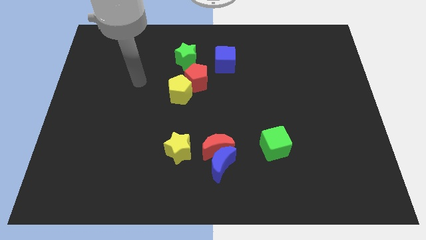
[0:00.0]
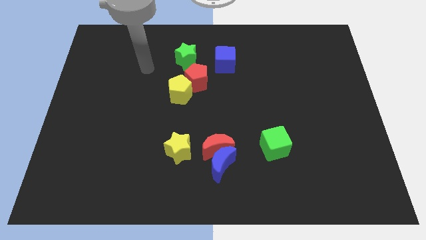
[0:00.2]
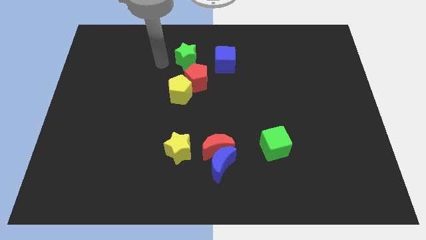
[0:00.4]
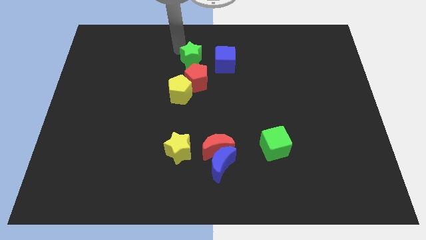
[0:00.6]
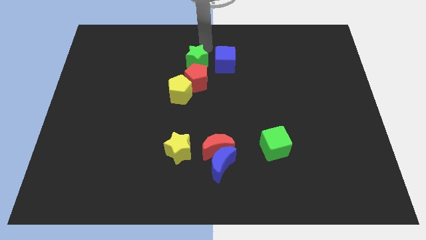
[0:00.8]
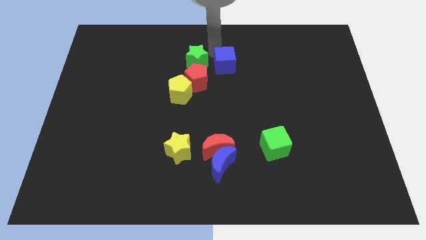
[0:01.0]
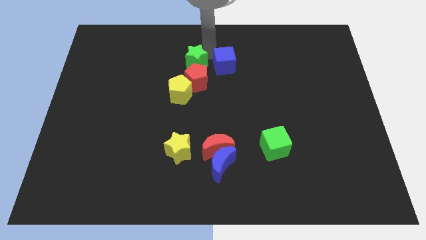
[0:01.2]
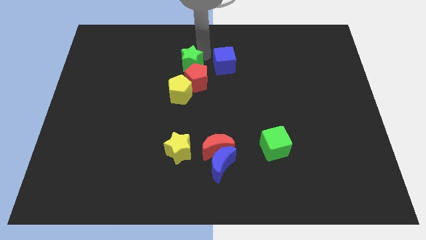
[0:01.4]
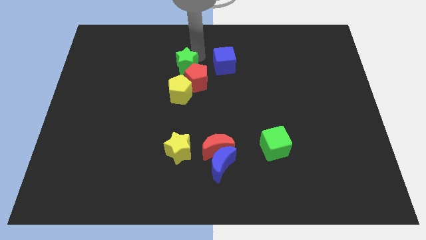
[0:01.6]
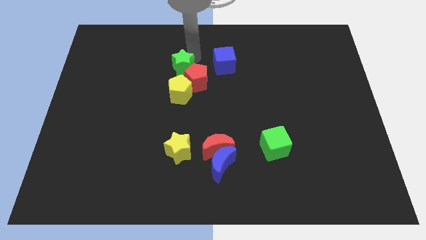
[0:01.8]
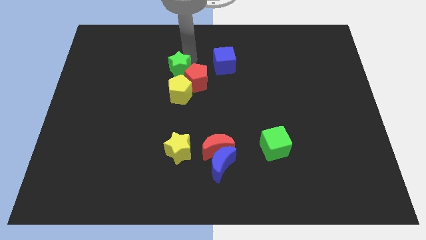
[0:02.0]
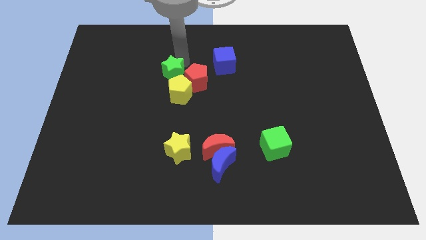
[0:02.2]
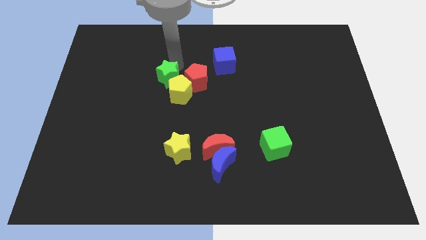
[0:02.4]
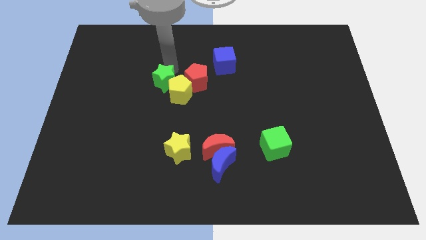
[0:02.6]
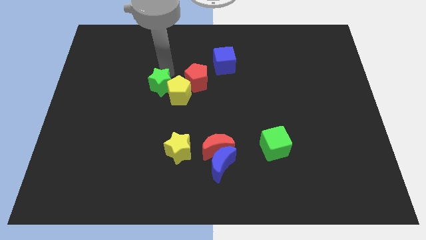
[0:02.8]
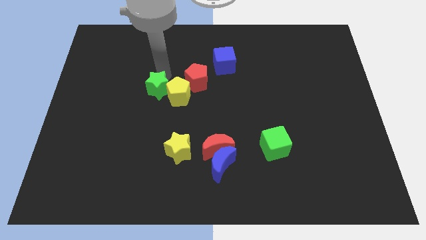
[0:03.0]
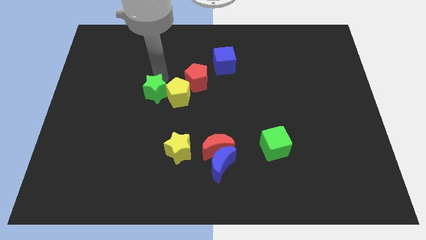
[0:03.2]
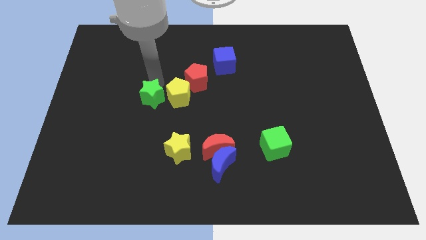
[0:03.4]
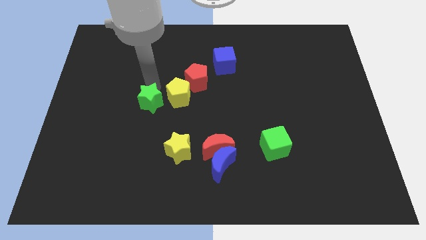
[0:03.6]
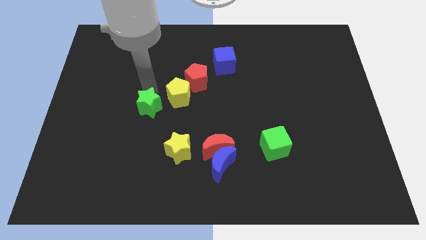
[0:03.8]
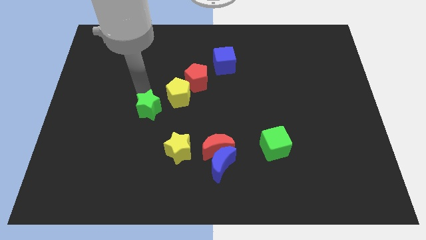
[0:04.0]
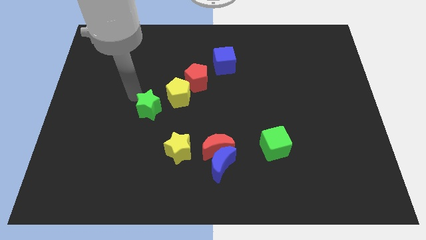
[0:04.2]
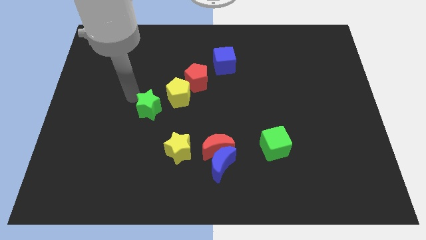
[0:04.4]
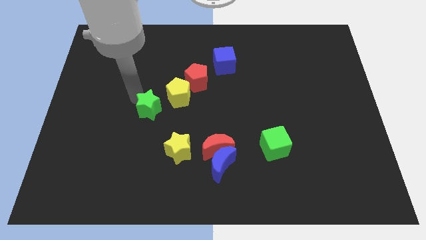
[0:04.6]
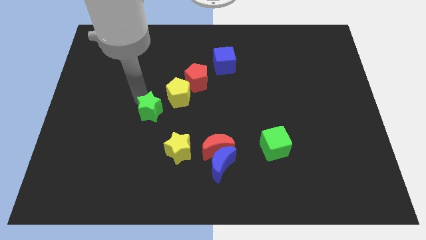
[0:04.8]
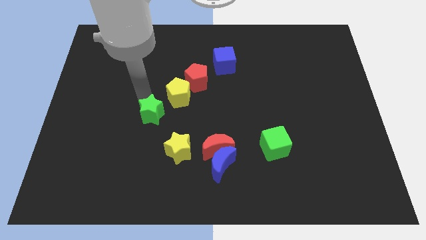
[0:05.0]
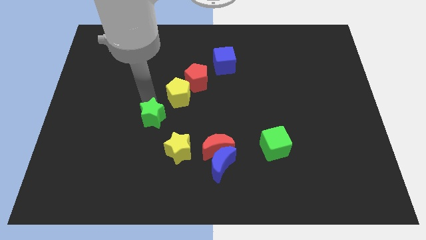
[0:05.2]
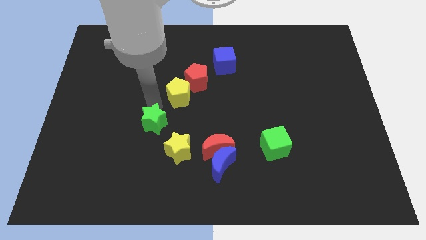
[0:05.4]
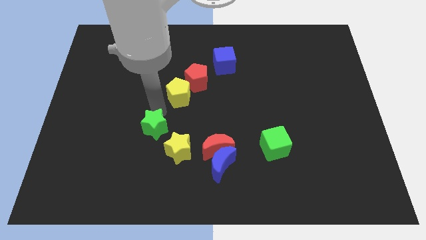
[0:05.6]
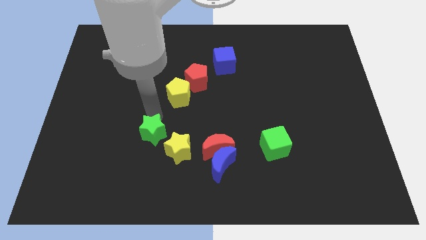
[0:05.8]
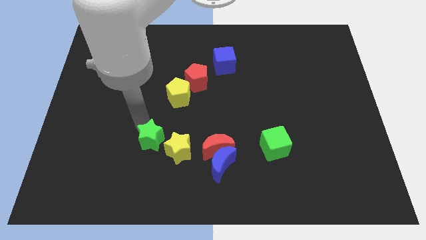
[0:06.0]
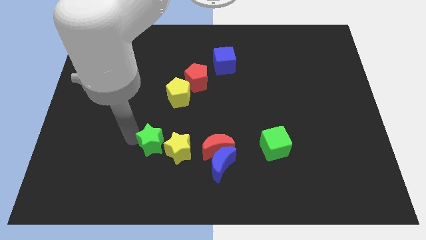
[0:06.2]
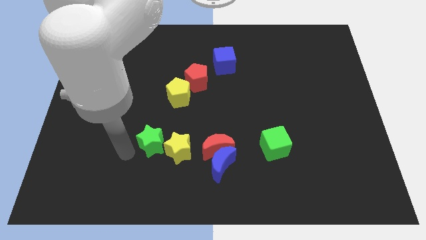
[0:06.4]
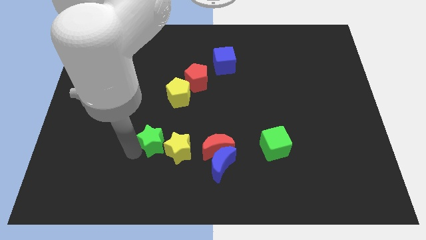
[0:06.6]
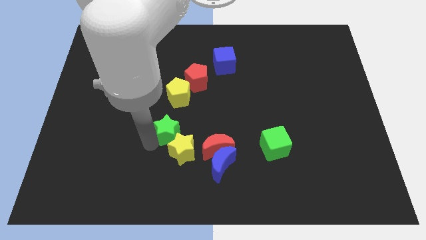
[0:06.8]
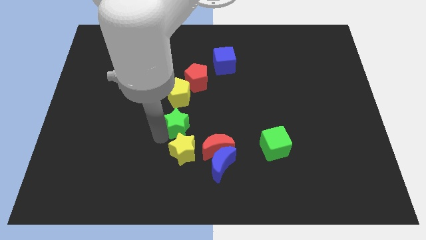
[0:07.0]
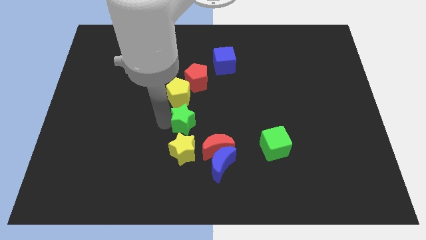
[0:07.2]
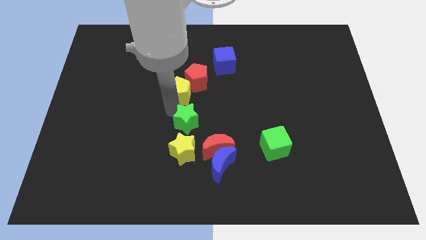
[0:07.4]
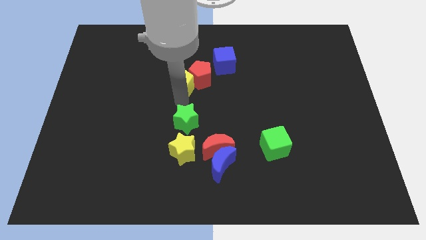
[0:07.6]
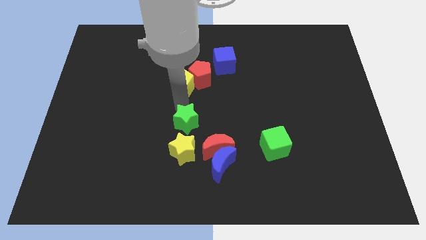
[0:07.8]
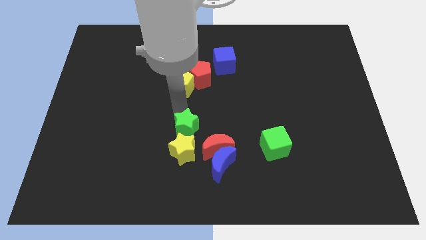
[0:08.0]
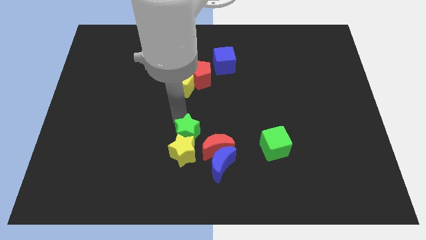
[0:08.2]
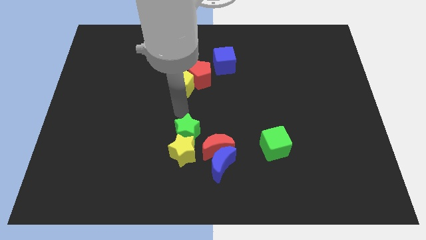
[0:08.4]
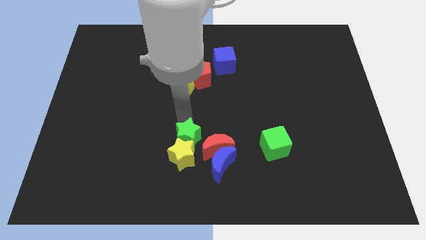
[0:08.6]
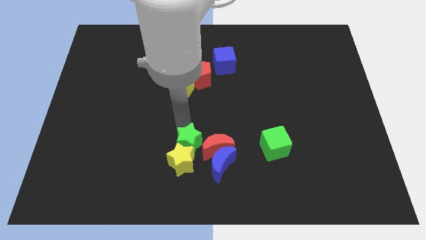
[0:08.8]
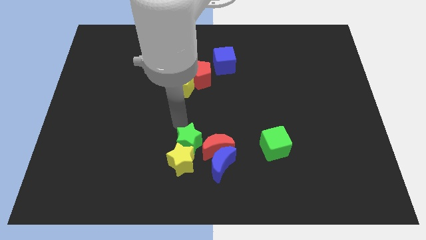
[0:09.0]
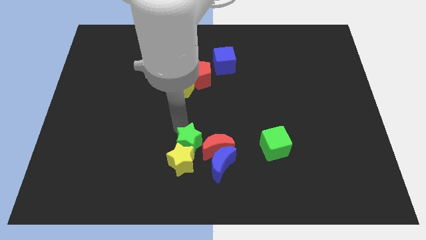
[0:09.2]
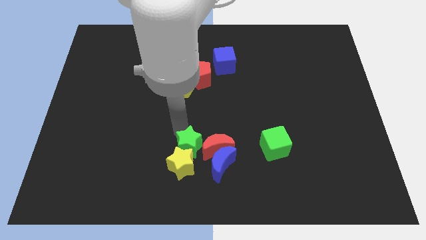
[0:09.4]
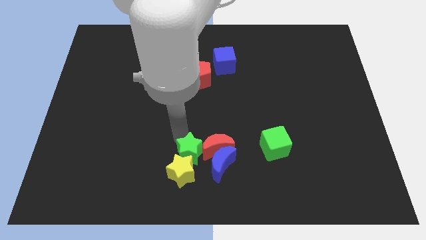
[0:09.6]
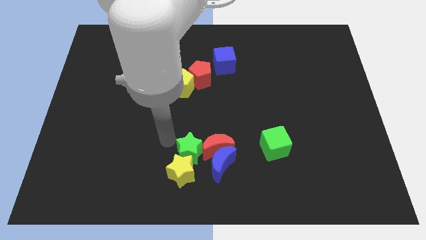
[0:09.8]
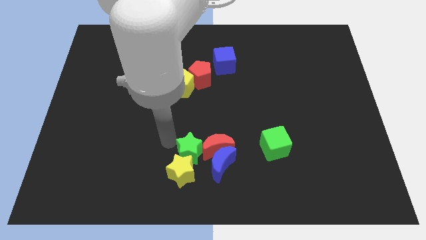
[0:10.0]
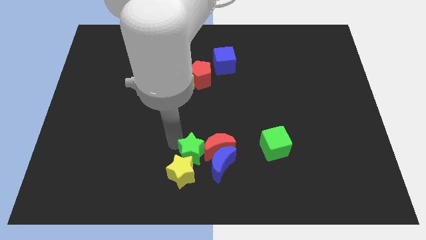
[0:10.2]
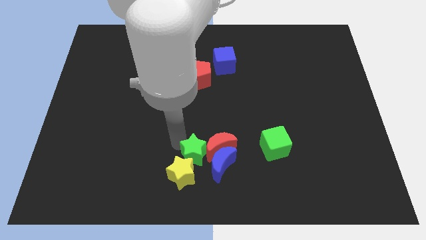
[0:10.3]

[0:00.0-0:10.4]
push the green star towards the blue moon

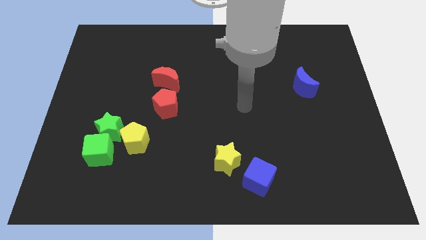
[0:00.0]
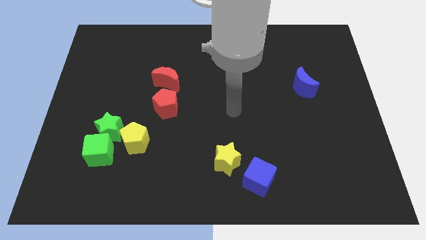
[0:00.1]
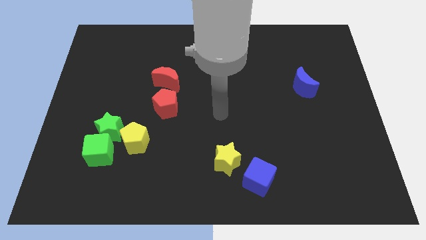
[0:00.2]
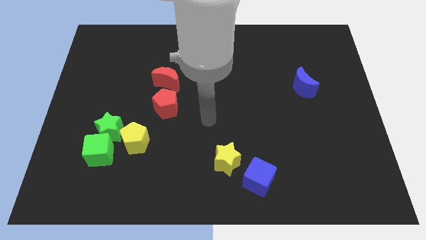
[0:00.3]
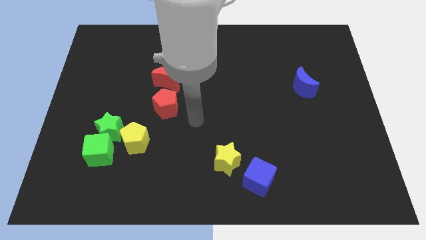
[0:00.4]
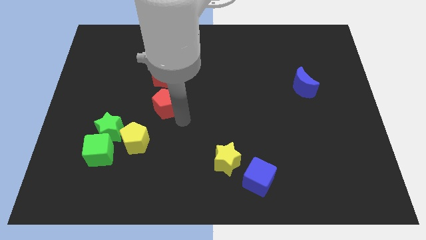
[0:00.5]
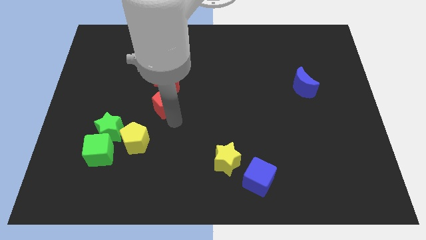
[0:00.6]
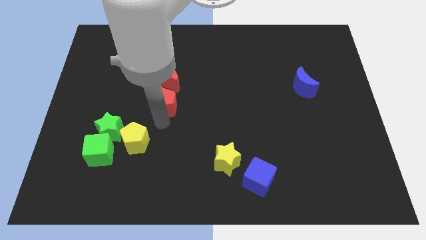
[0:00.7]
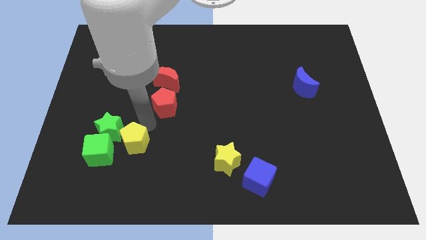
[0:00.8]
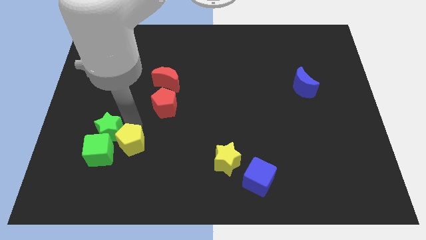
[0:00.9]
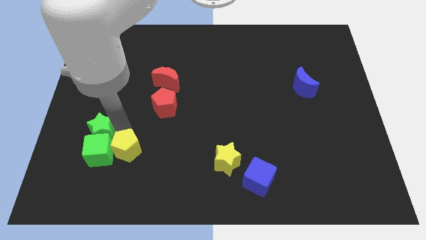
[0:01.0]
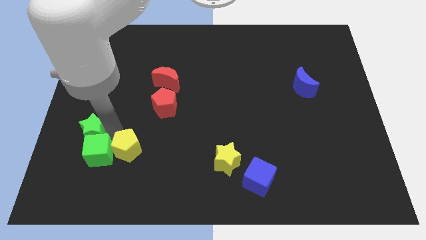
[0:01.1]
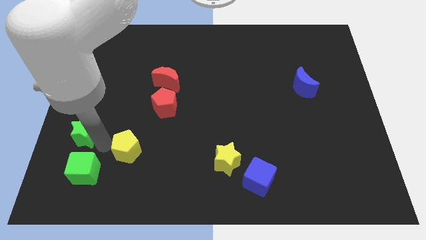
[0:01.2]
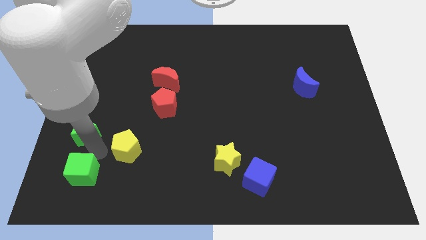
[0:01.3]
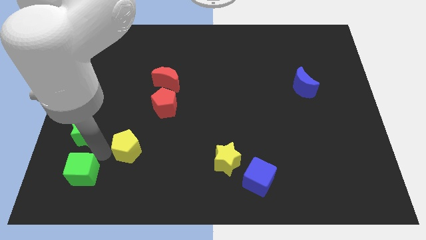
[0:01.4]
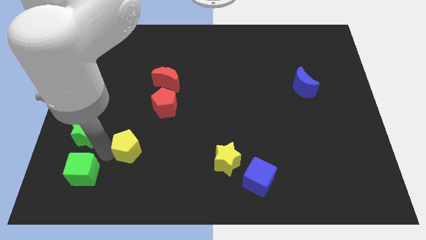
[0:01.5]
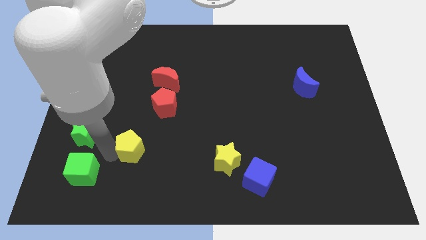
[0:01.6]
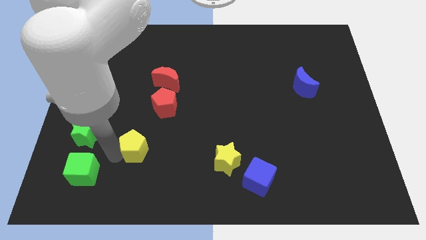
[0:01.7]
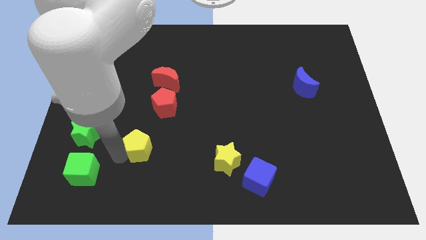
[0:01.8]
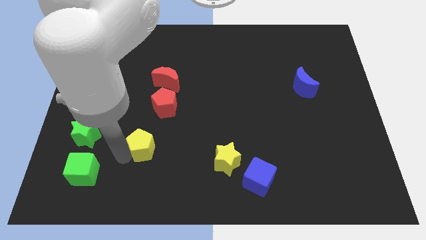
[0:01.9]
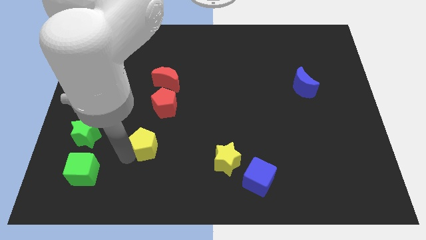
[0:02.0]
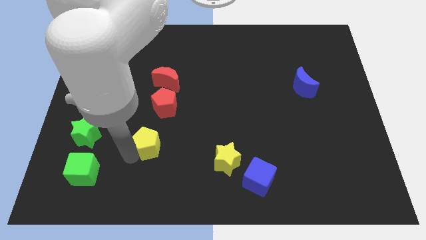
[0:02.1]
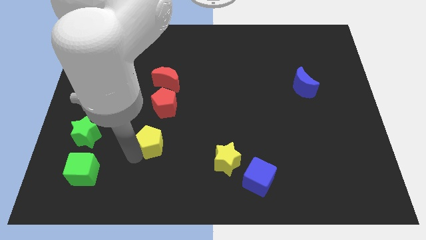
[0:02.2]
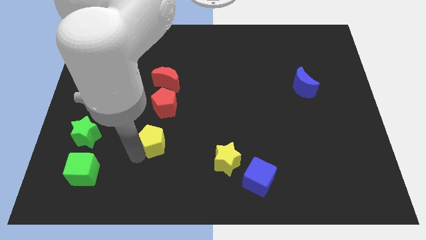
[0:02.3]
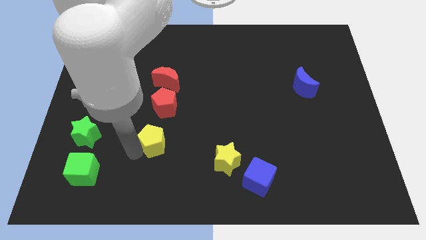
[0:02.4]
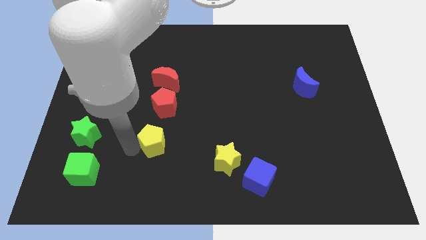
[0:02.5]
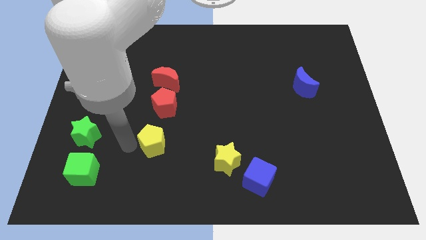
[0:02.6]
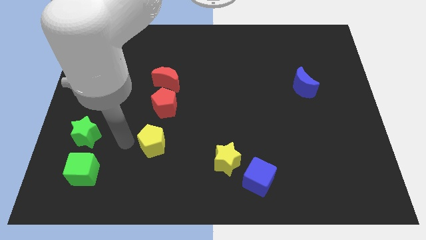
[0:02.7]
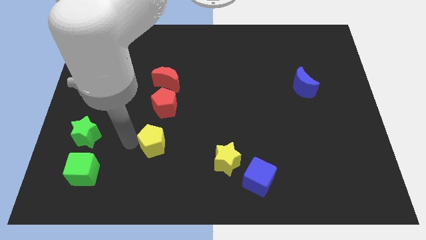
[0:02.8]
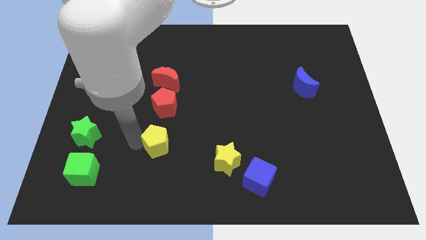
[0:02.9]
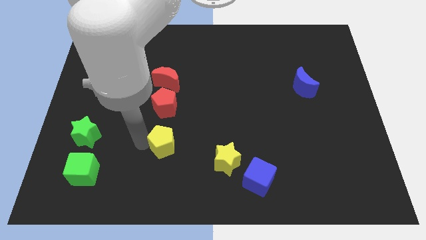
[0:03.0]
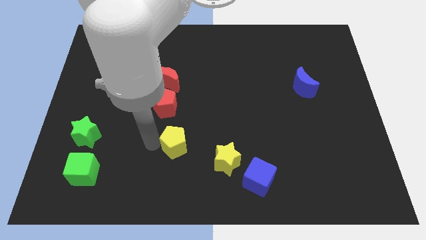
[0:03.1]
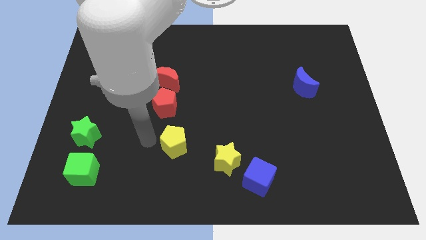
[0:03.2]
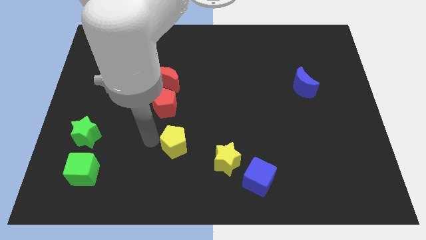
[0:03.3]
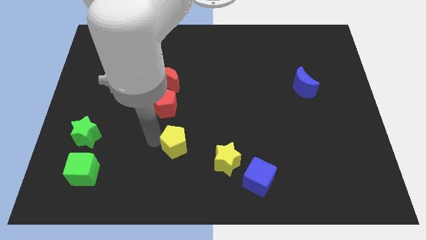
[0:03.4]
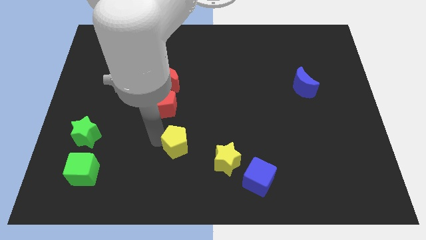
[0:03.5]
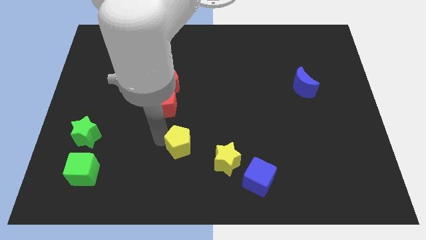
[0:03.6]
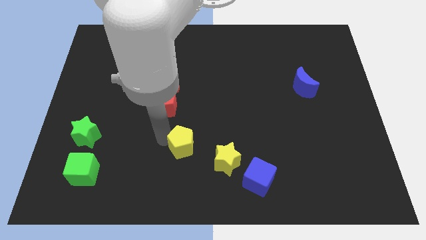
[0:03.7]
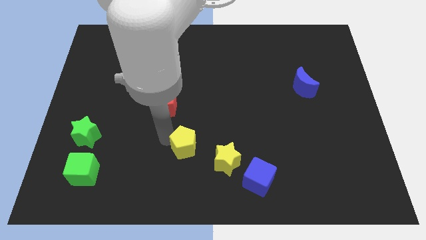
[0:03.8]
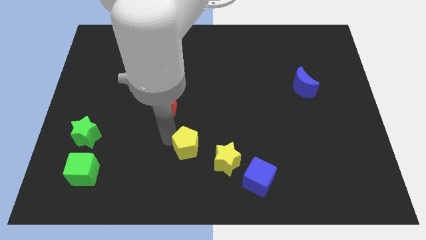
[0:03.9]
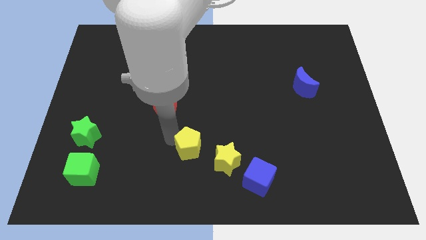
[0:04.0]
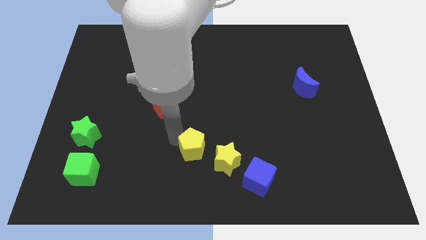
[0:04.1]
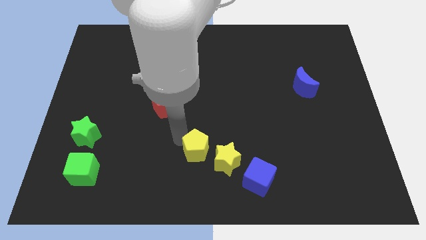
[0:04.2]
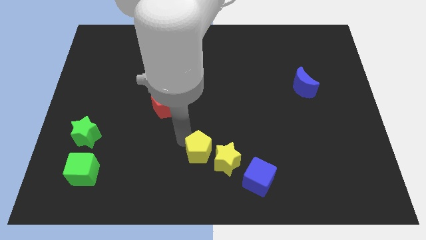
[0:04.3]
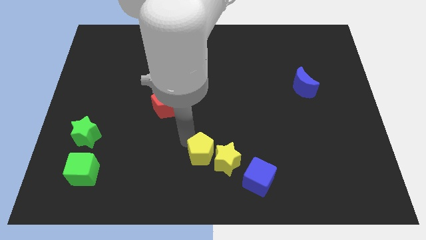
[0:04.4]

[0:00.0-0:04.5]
put the yellow pentagon next to the yellow star
